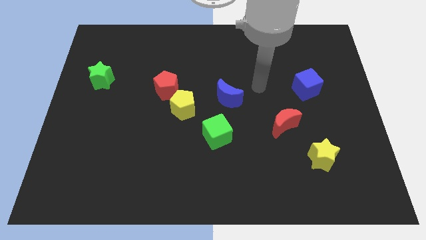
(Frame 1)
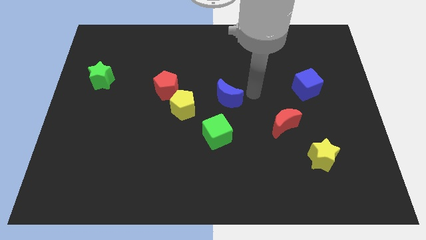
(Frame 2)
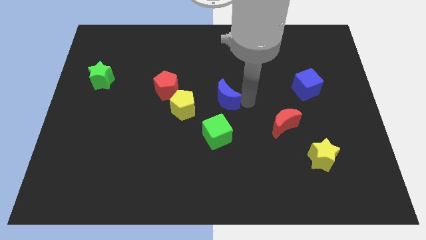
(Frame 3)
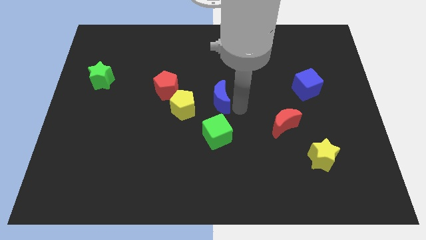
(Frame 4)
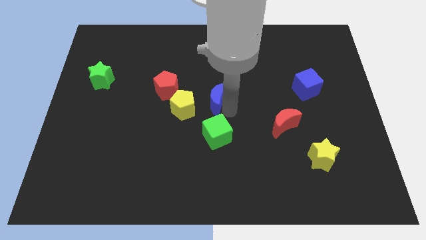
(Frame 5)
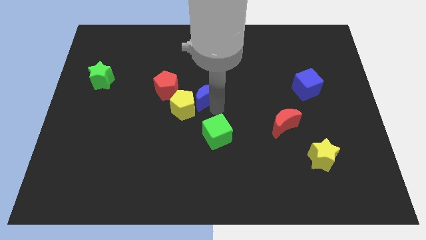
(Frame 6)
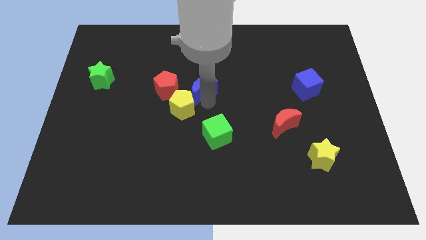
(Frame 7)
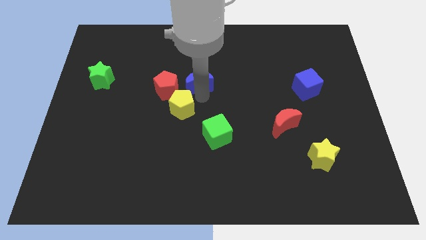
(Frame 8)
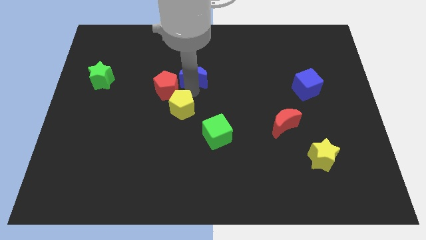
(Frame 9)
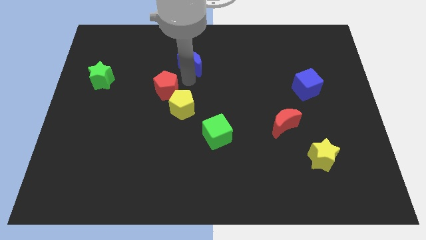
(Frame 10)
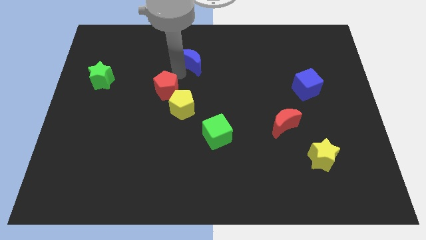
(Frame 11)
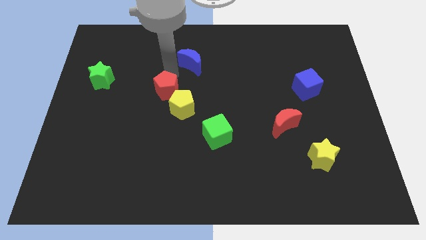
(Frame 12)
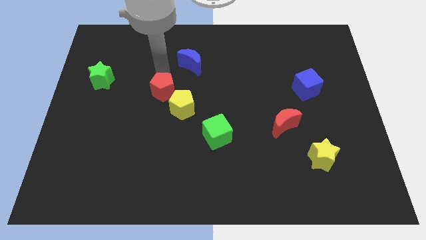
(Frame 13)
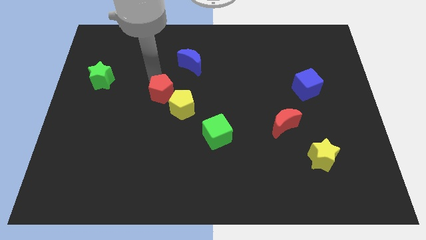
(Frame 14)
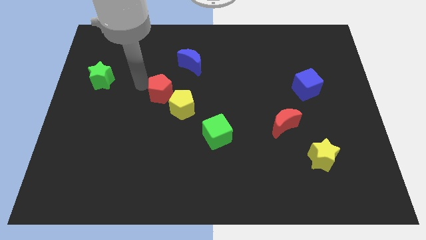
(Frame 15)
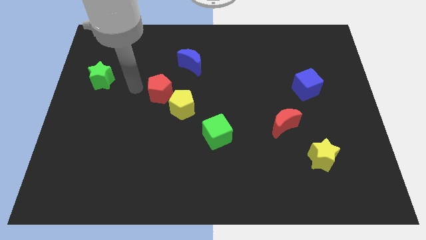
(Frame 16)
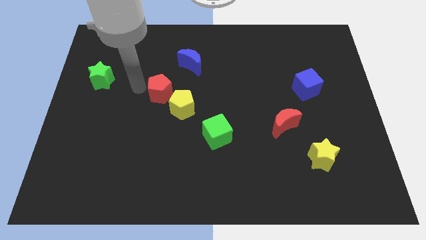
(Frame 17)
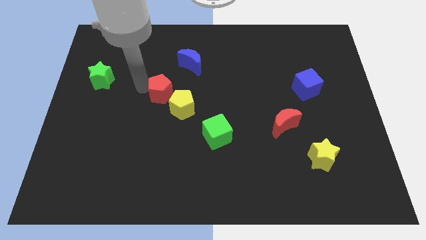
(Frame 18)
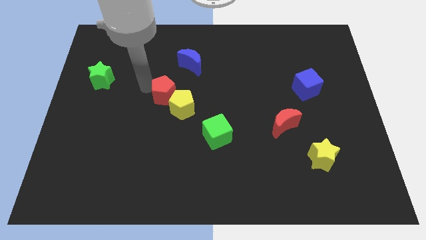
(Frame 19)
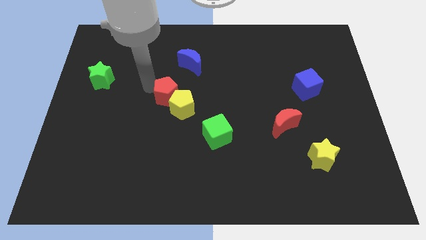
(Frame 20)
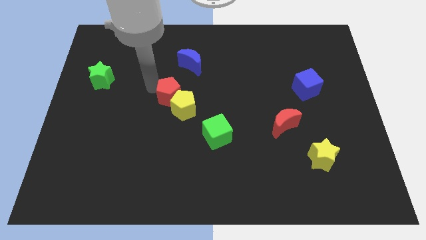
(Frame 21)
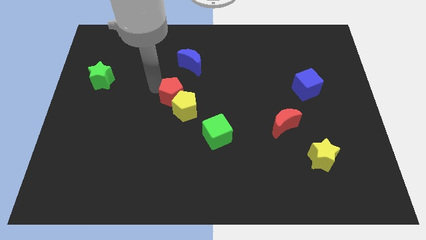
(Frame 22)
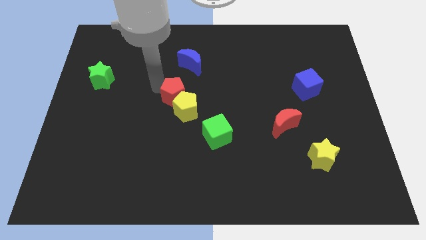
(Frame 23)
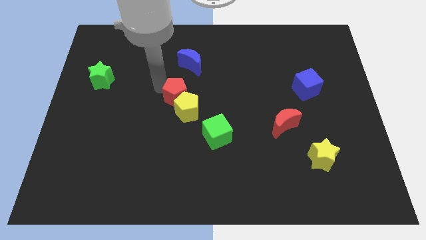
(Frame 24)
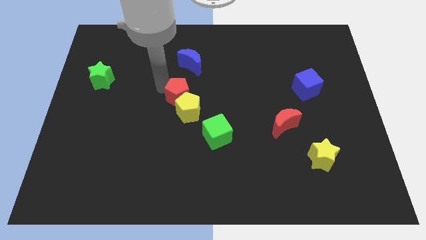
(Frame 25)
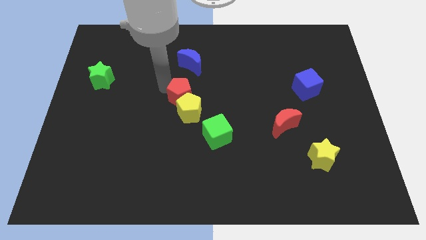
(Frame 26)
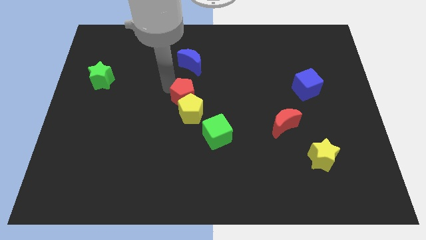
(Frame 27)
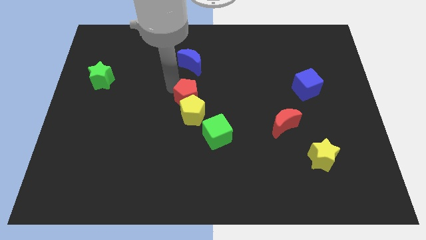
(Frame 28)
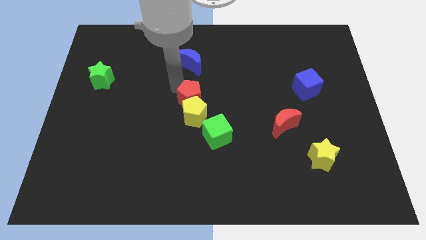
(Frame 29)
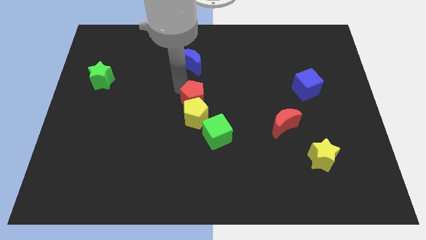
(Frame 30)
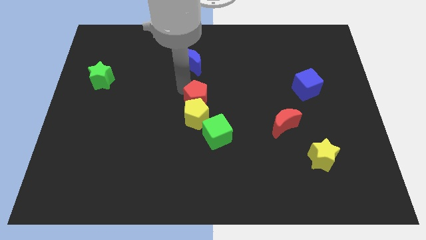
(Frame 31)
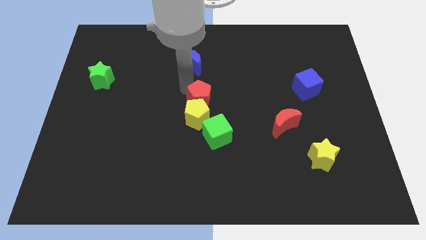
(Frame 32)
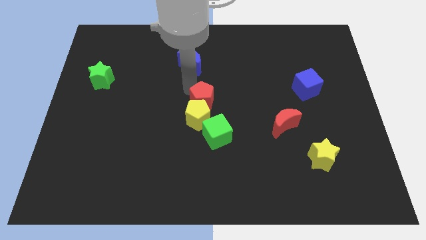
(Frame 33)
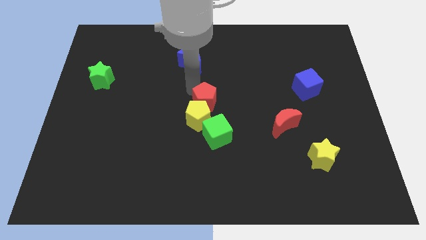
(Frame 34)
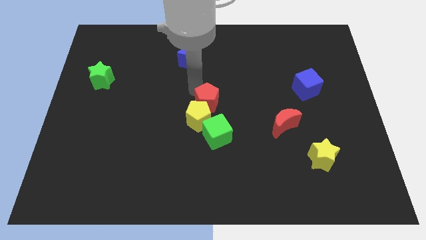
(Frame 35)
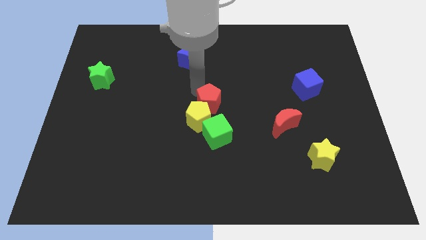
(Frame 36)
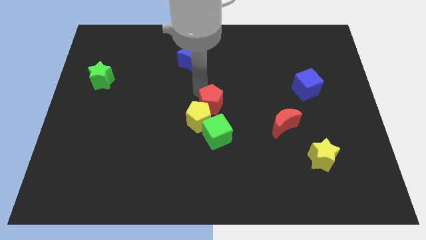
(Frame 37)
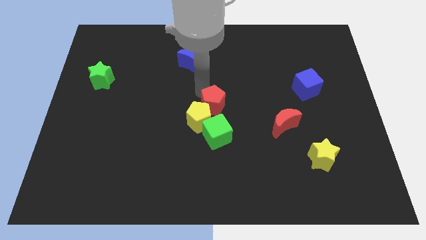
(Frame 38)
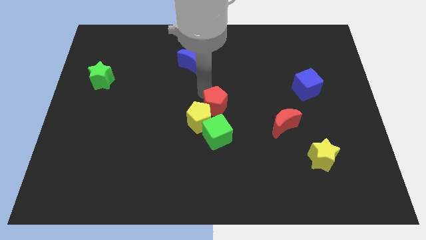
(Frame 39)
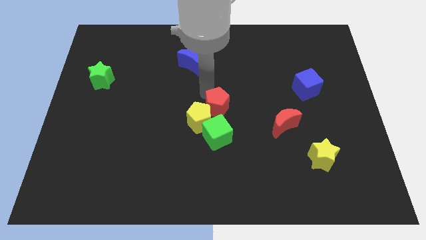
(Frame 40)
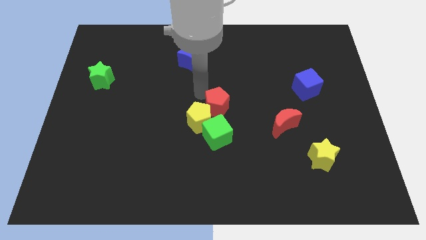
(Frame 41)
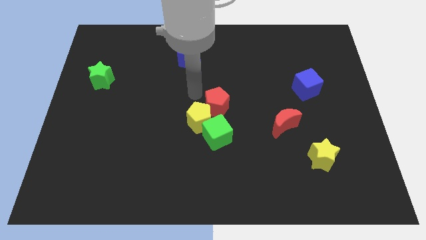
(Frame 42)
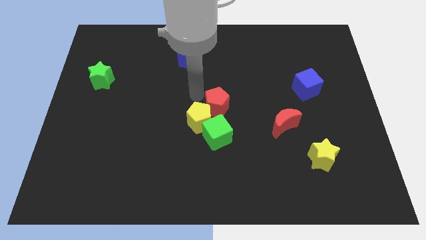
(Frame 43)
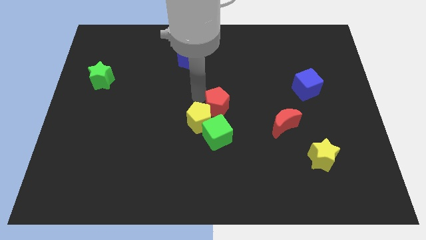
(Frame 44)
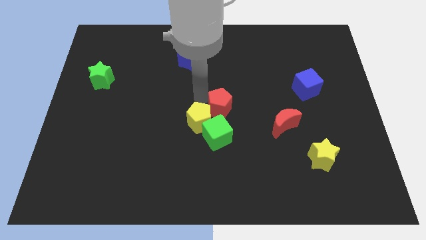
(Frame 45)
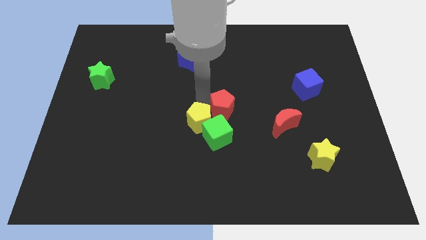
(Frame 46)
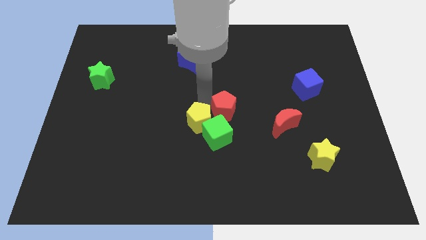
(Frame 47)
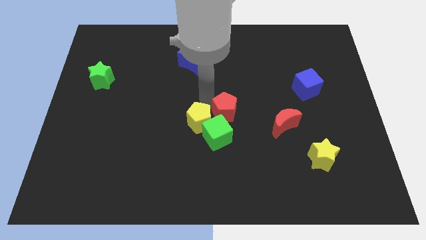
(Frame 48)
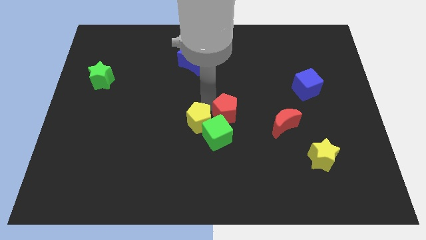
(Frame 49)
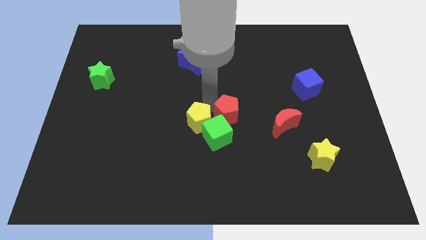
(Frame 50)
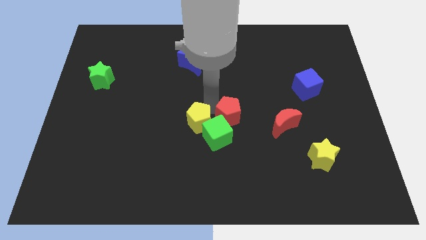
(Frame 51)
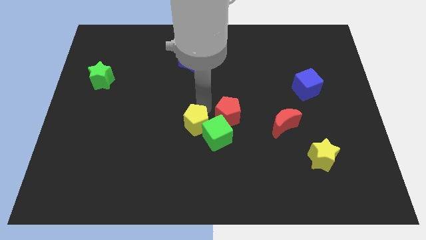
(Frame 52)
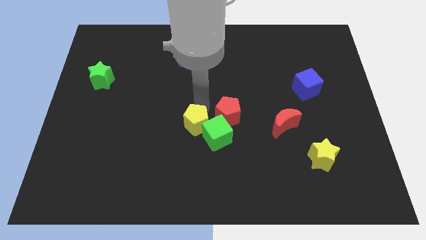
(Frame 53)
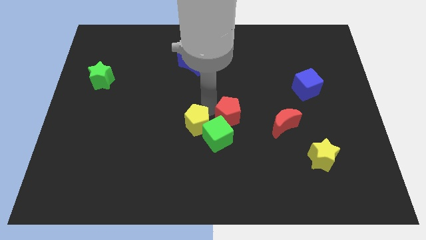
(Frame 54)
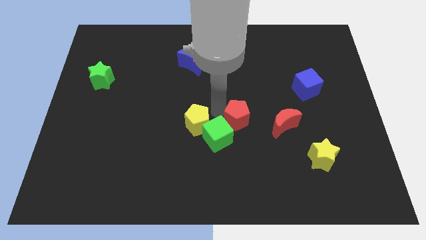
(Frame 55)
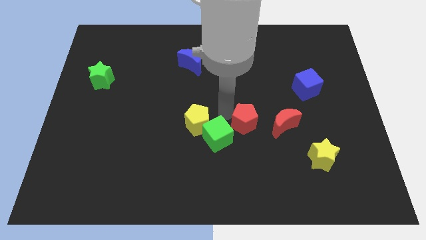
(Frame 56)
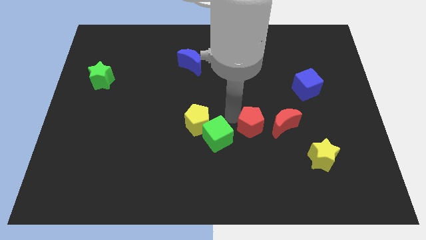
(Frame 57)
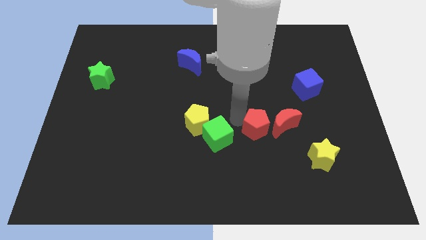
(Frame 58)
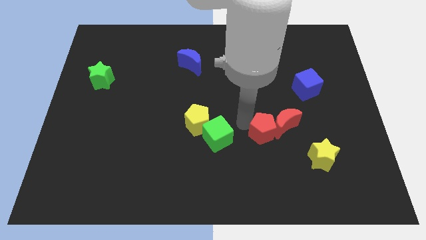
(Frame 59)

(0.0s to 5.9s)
move the red pentagon next to the red moon

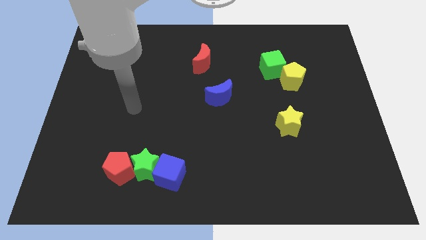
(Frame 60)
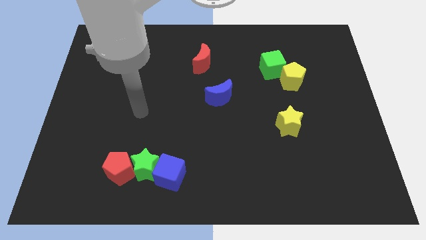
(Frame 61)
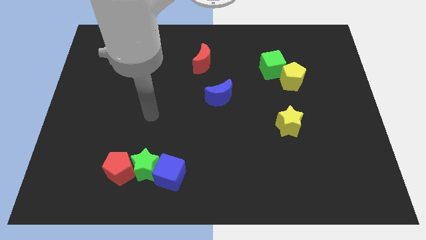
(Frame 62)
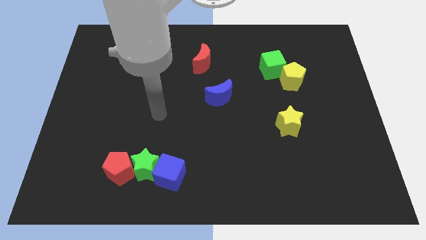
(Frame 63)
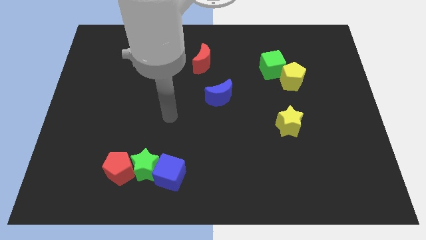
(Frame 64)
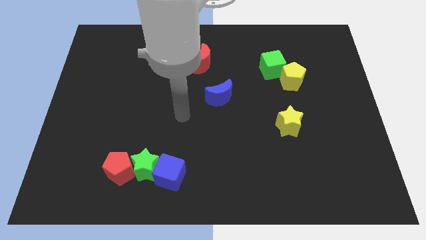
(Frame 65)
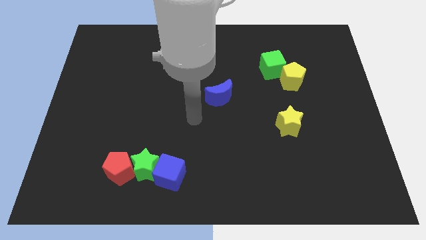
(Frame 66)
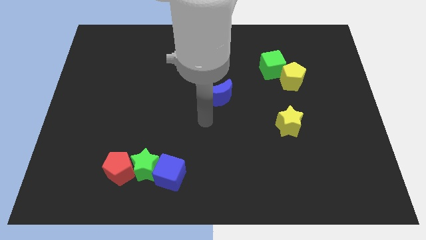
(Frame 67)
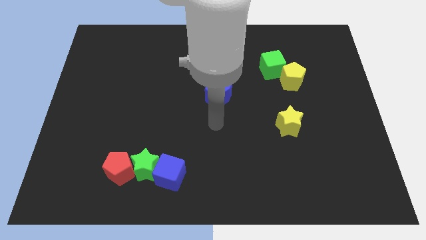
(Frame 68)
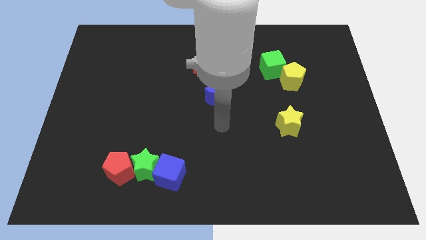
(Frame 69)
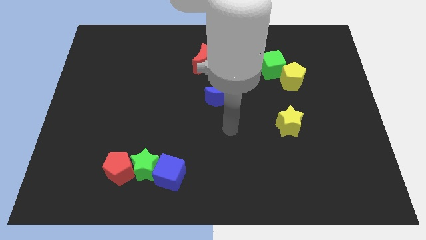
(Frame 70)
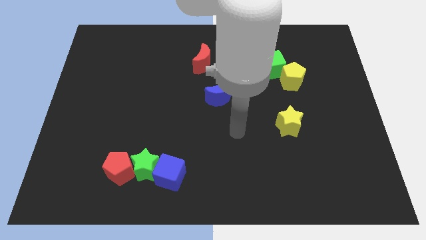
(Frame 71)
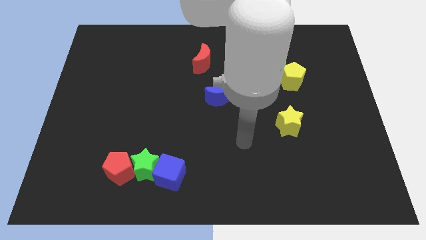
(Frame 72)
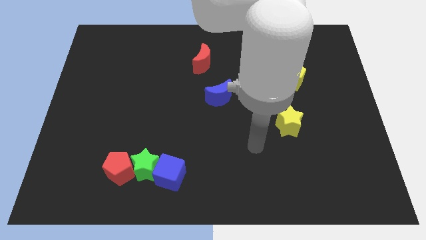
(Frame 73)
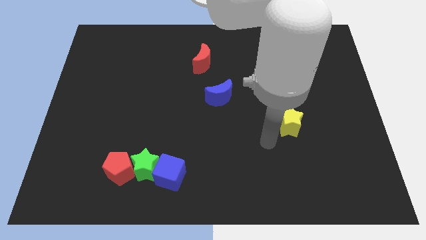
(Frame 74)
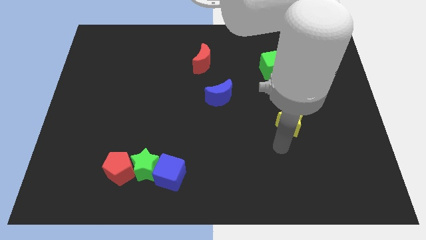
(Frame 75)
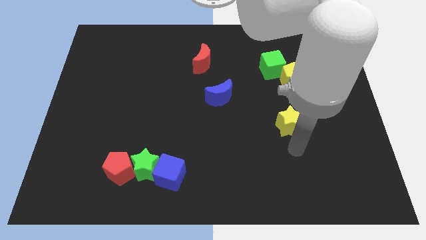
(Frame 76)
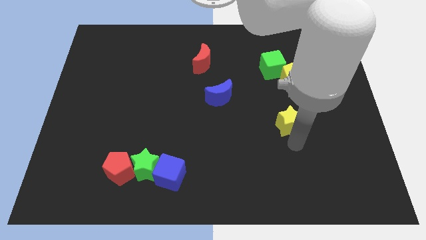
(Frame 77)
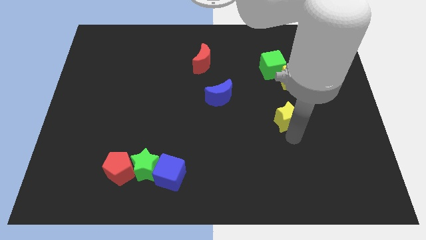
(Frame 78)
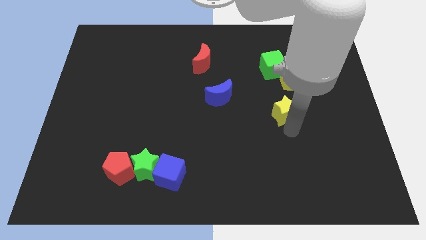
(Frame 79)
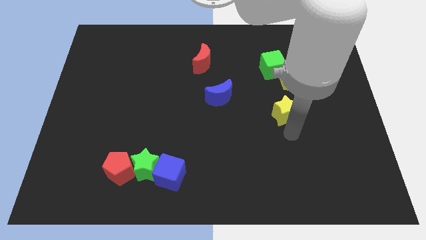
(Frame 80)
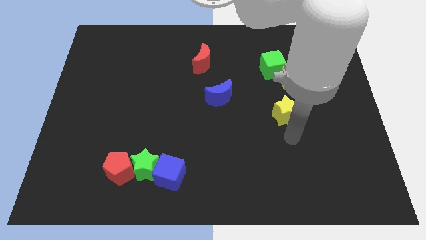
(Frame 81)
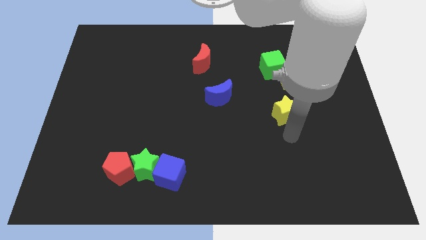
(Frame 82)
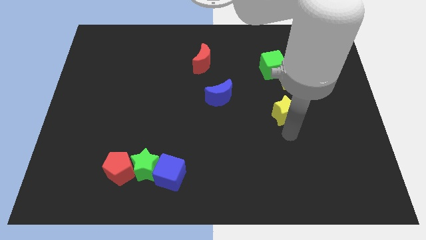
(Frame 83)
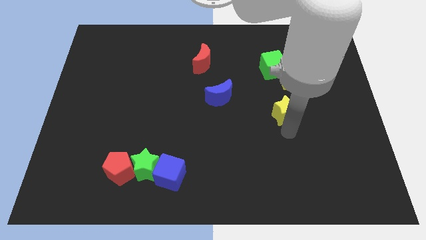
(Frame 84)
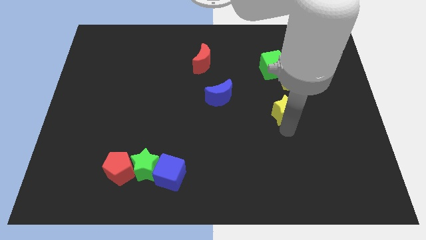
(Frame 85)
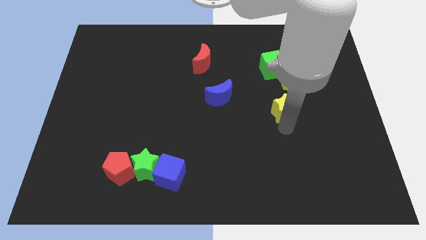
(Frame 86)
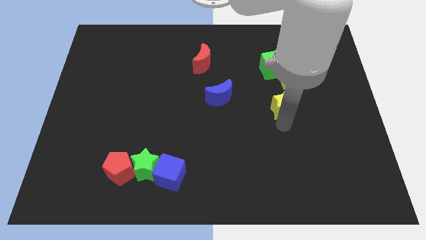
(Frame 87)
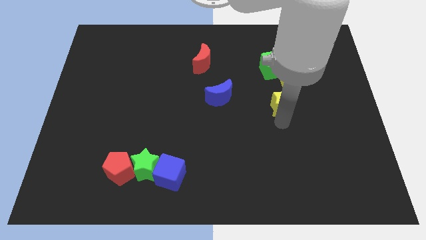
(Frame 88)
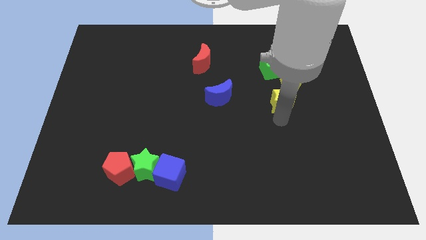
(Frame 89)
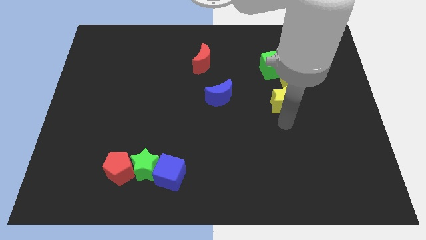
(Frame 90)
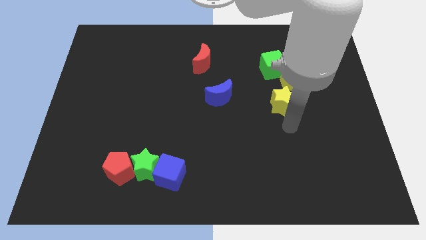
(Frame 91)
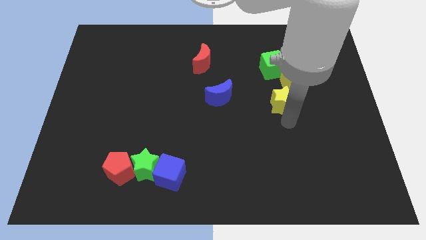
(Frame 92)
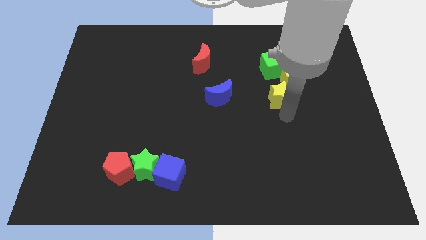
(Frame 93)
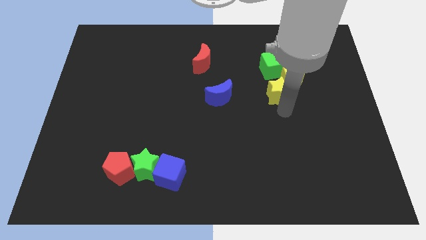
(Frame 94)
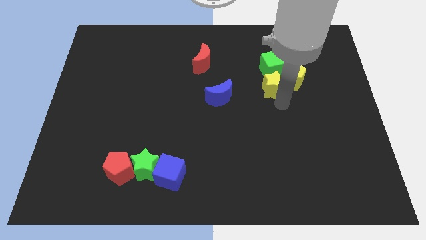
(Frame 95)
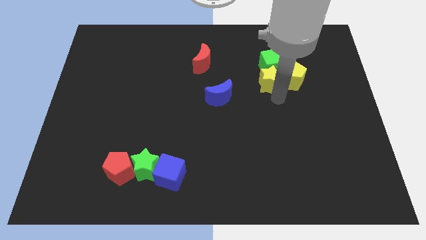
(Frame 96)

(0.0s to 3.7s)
push the yellow star next to the green cube
